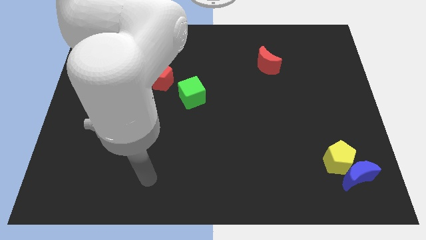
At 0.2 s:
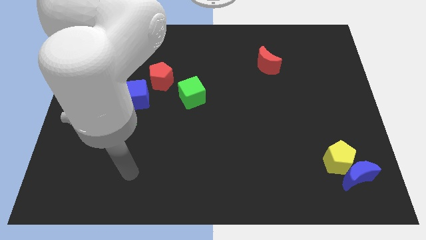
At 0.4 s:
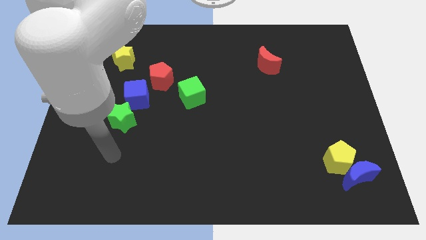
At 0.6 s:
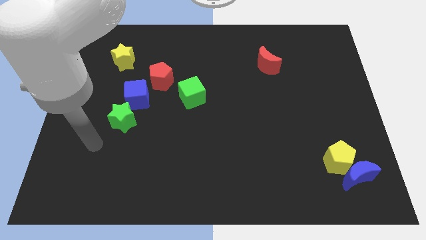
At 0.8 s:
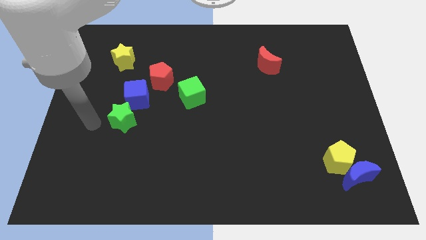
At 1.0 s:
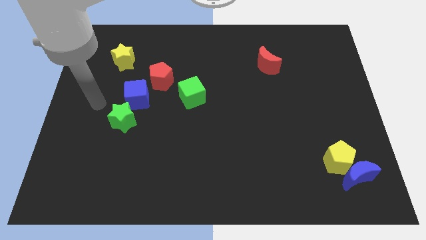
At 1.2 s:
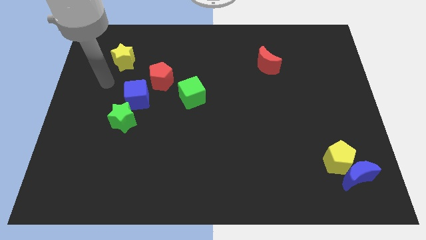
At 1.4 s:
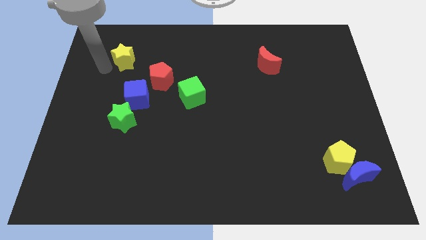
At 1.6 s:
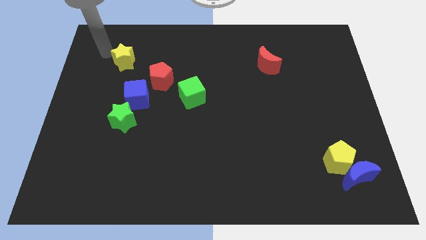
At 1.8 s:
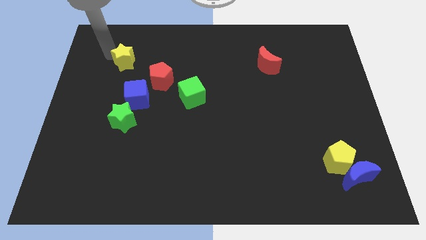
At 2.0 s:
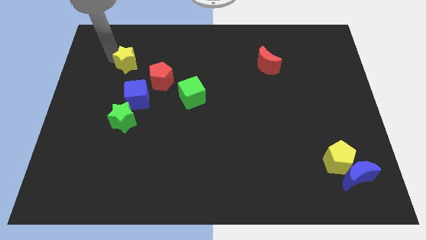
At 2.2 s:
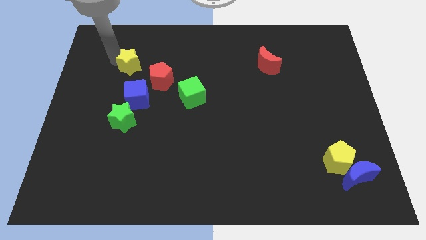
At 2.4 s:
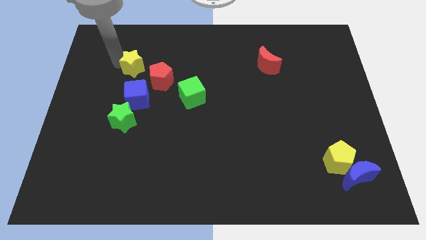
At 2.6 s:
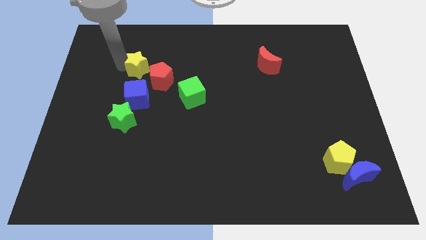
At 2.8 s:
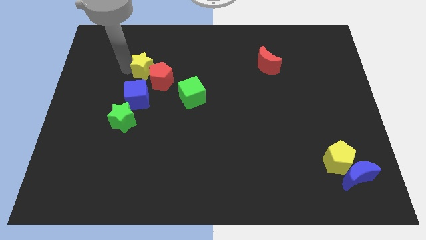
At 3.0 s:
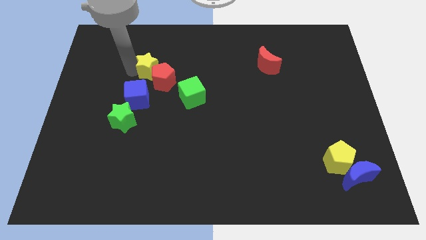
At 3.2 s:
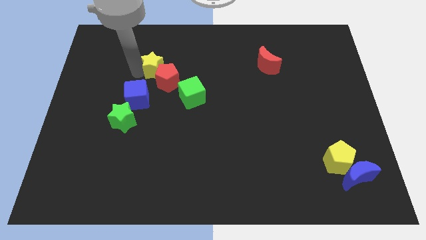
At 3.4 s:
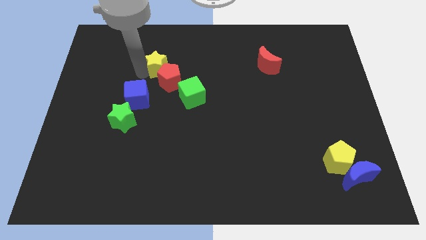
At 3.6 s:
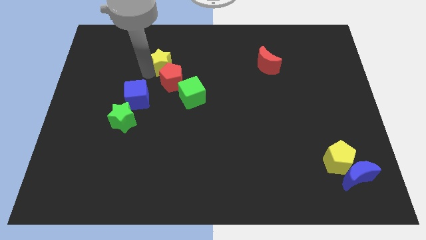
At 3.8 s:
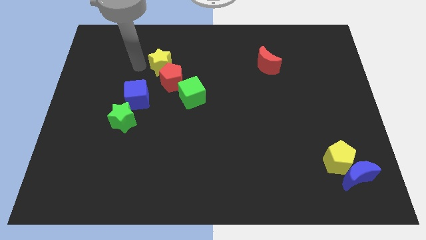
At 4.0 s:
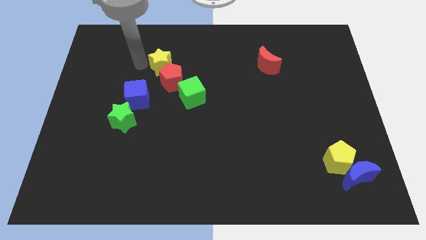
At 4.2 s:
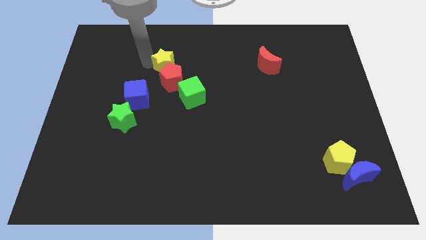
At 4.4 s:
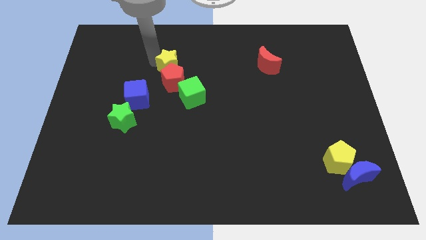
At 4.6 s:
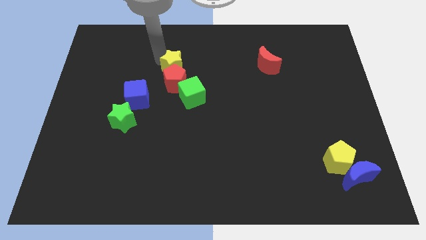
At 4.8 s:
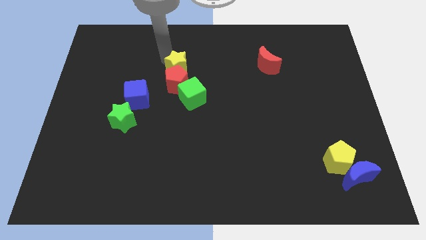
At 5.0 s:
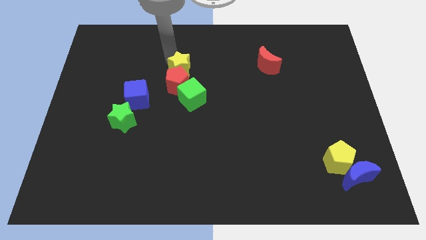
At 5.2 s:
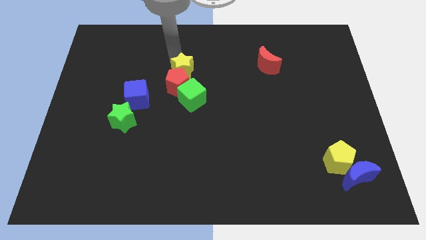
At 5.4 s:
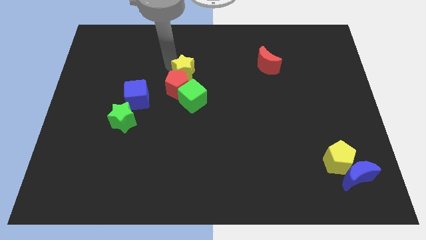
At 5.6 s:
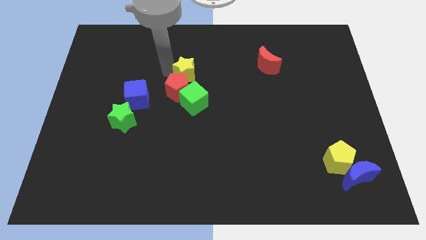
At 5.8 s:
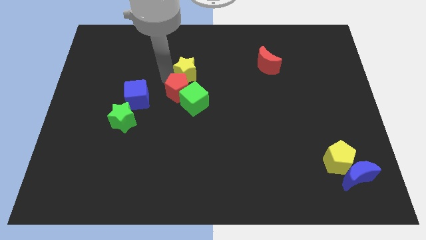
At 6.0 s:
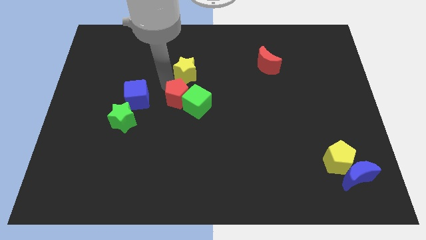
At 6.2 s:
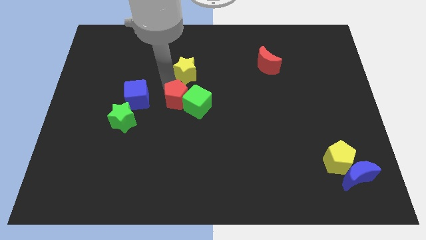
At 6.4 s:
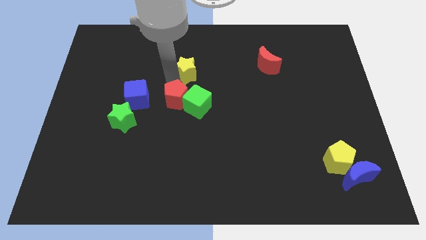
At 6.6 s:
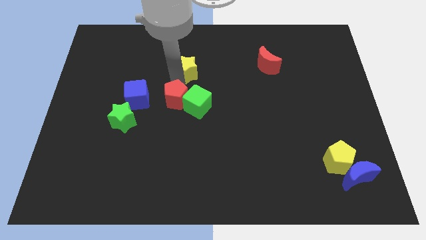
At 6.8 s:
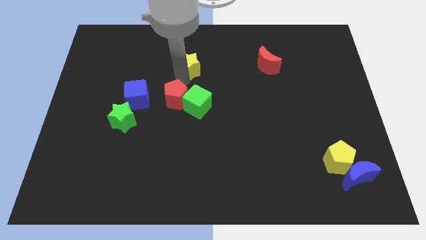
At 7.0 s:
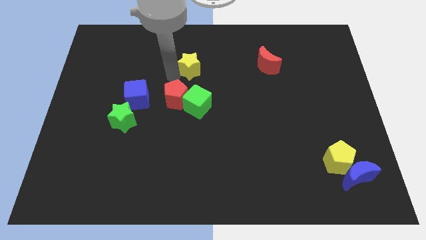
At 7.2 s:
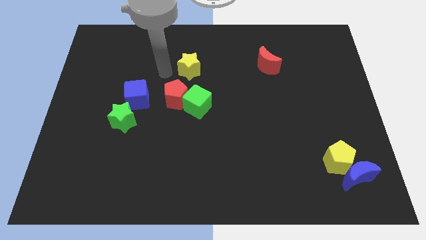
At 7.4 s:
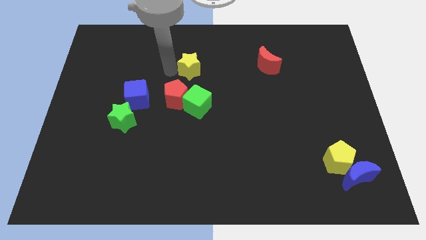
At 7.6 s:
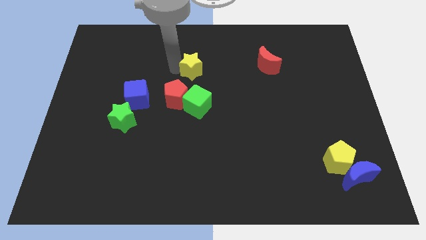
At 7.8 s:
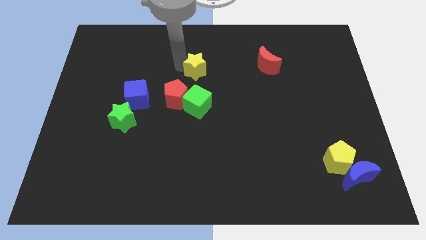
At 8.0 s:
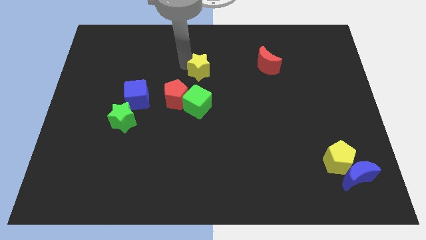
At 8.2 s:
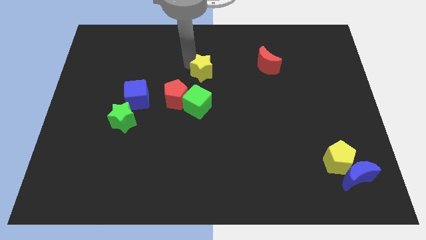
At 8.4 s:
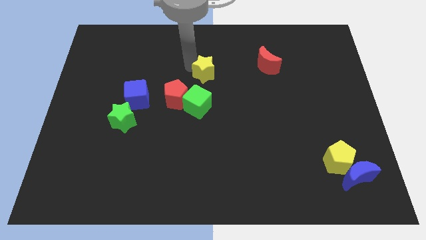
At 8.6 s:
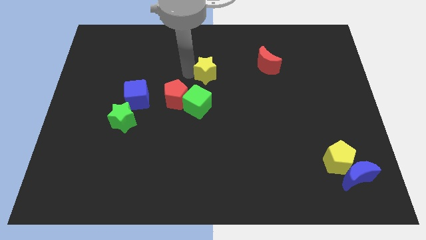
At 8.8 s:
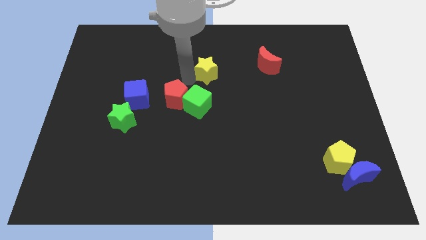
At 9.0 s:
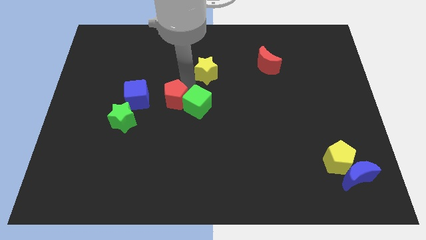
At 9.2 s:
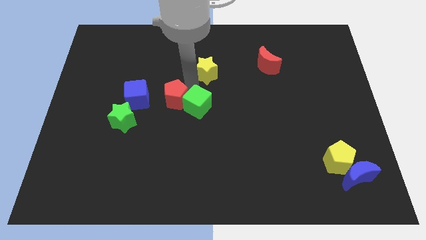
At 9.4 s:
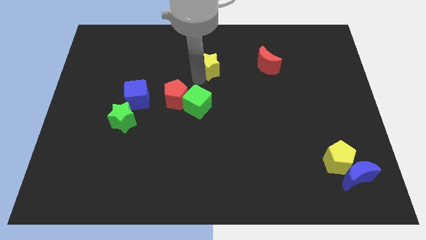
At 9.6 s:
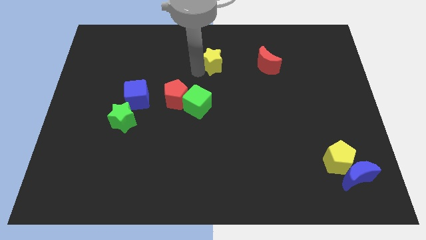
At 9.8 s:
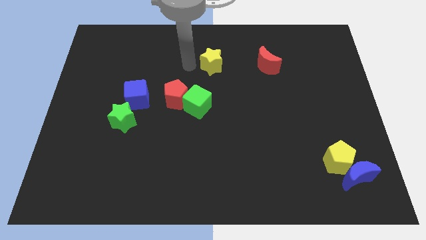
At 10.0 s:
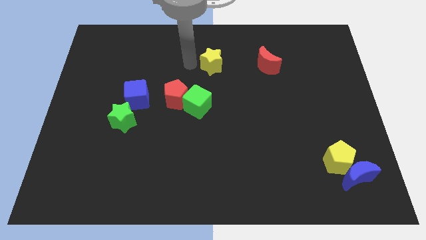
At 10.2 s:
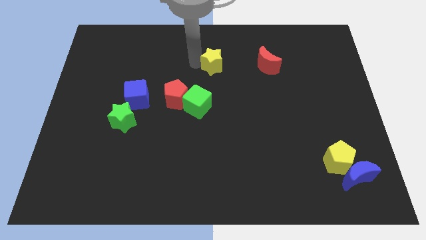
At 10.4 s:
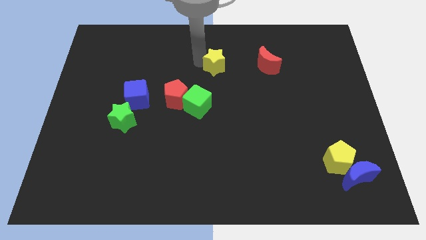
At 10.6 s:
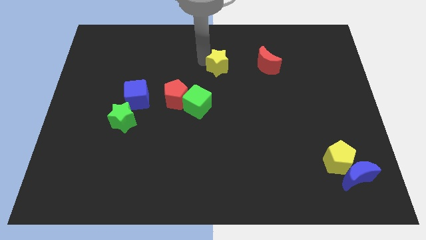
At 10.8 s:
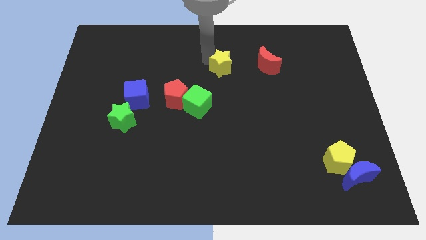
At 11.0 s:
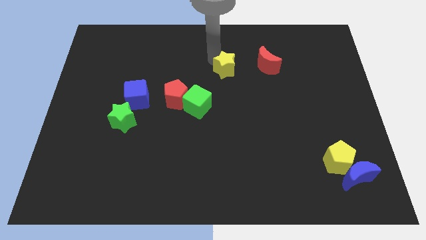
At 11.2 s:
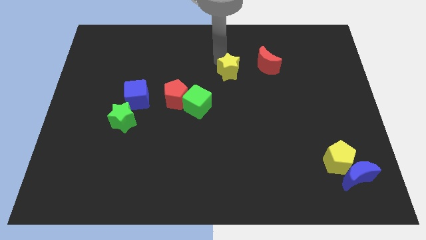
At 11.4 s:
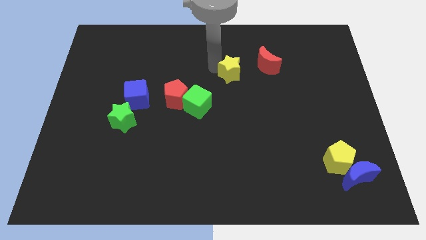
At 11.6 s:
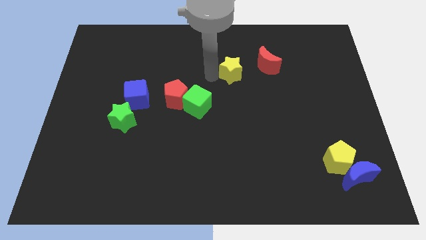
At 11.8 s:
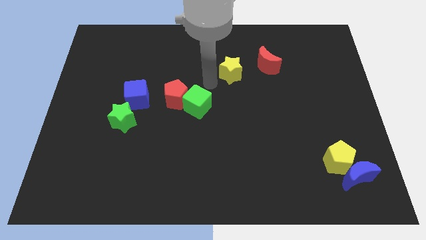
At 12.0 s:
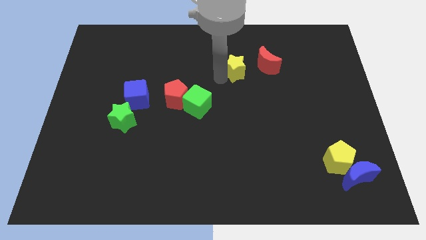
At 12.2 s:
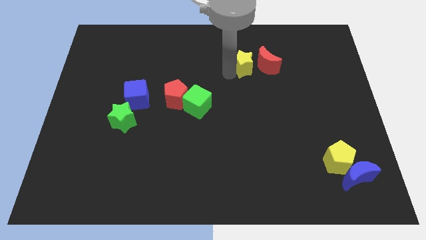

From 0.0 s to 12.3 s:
move the yellow star towards the red moon

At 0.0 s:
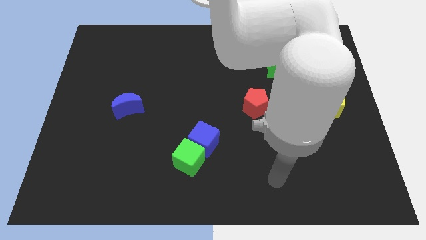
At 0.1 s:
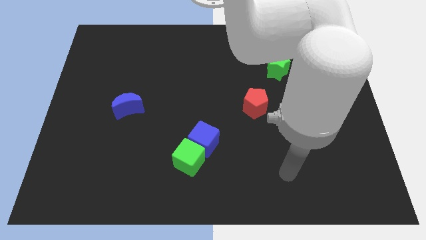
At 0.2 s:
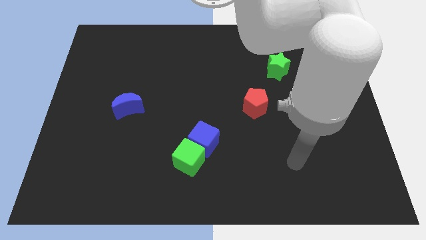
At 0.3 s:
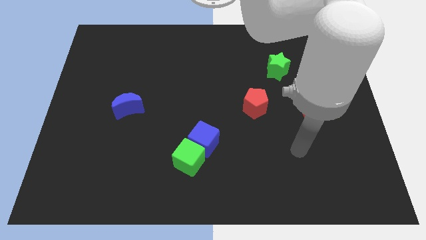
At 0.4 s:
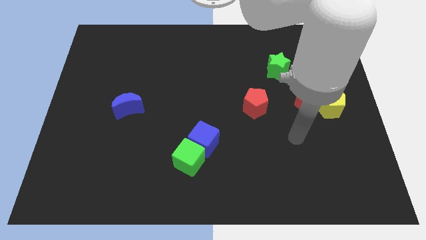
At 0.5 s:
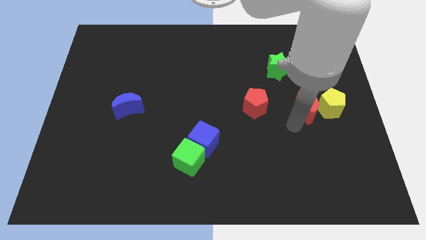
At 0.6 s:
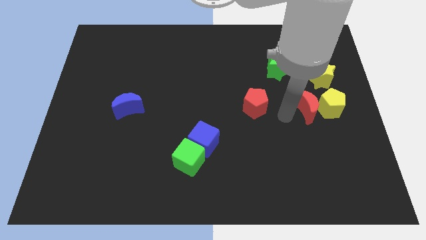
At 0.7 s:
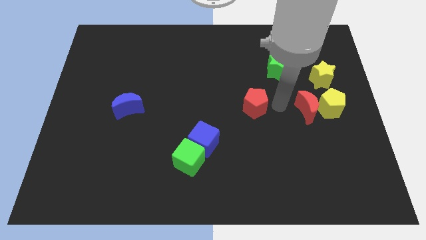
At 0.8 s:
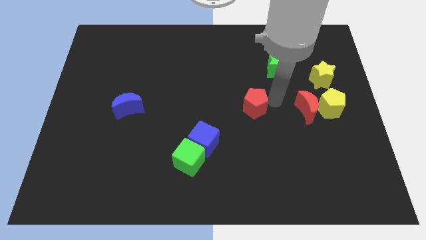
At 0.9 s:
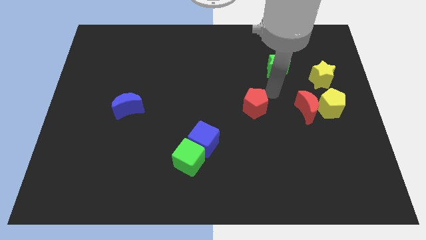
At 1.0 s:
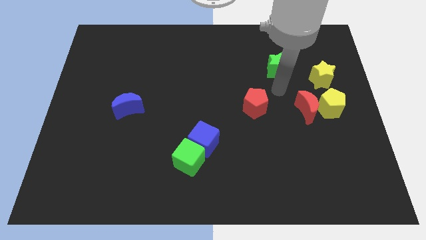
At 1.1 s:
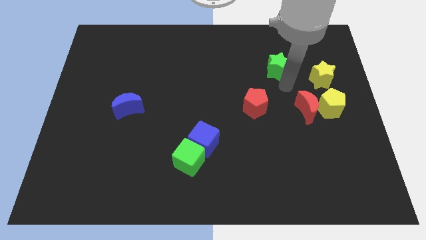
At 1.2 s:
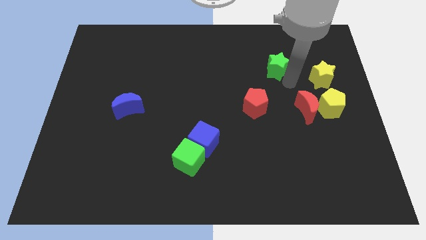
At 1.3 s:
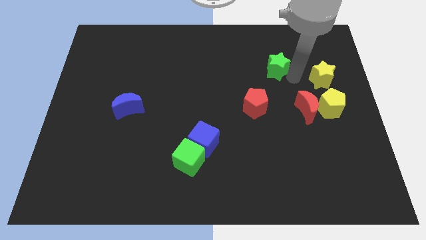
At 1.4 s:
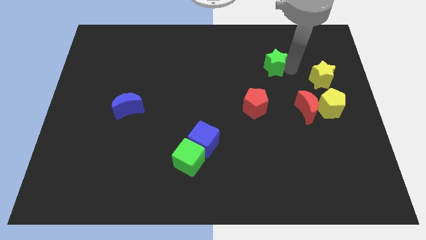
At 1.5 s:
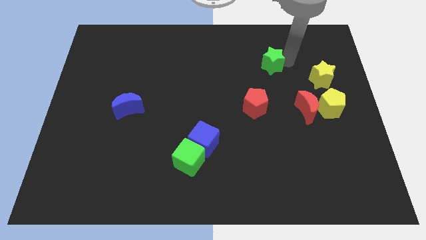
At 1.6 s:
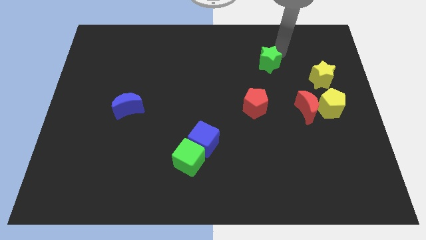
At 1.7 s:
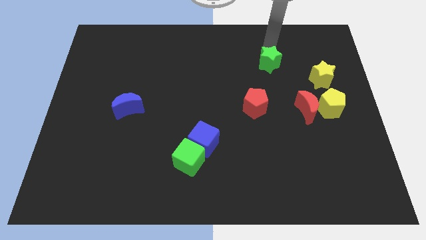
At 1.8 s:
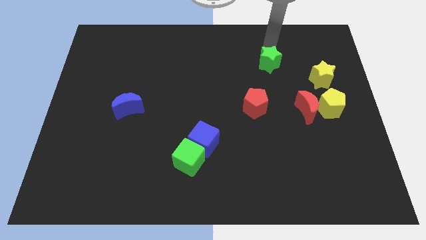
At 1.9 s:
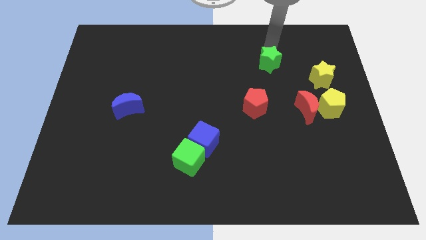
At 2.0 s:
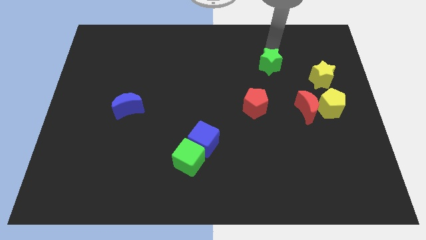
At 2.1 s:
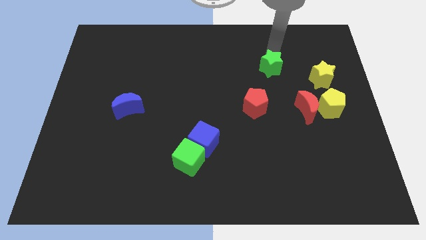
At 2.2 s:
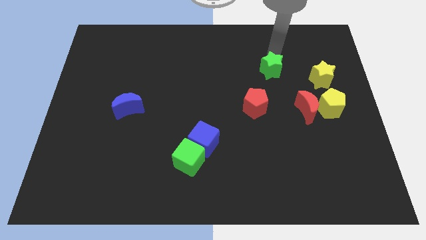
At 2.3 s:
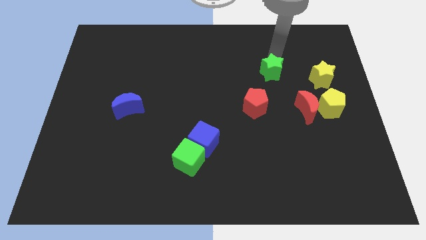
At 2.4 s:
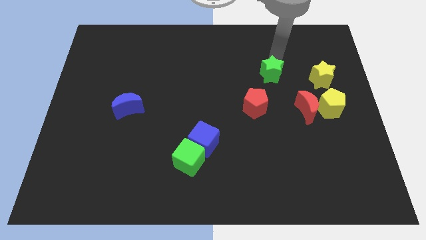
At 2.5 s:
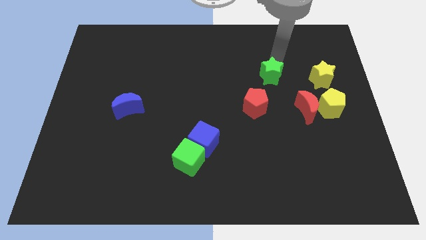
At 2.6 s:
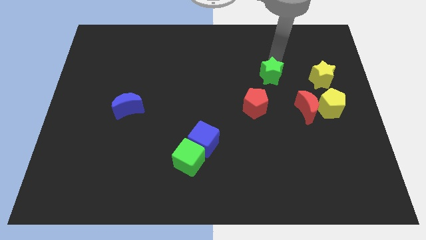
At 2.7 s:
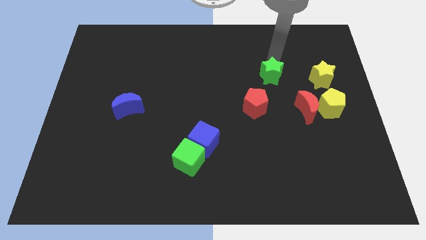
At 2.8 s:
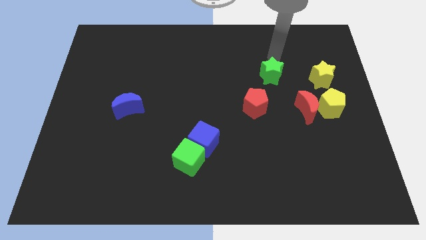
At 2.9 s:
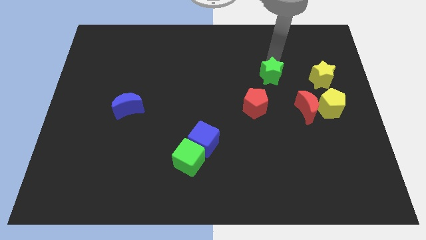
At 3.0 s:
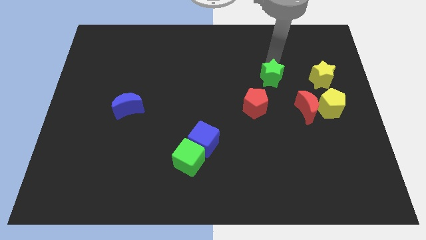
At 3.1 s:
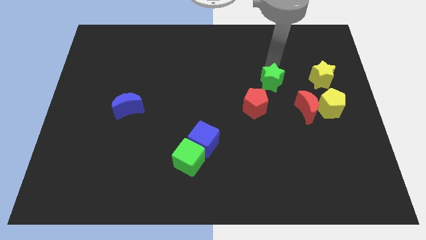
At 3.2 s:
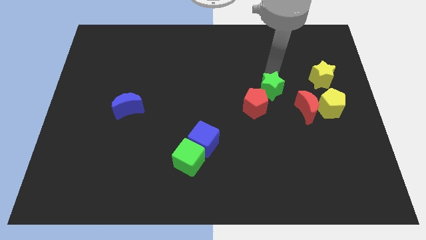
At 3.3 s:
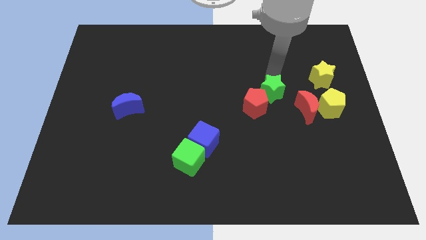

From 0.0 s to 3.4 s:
move the green star towards the red pentagon
